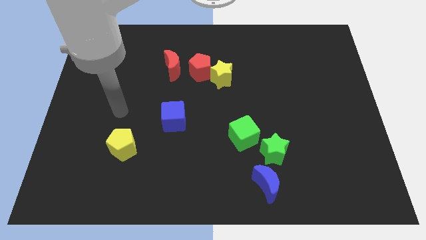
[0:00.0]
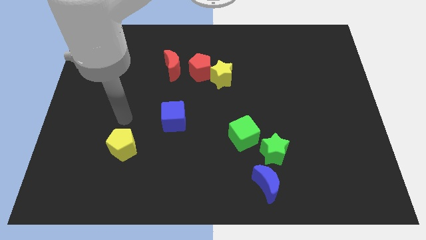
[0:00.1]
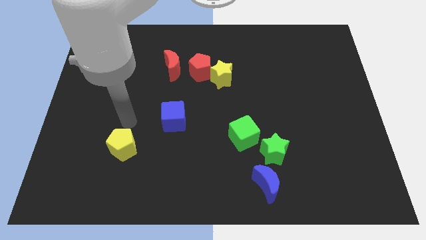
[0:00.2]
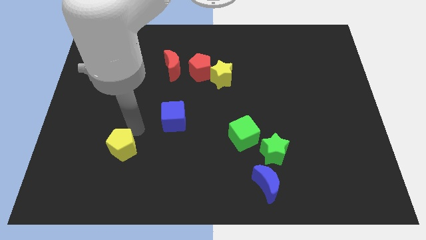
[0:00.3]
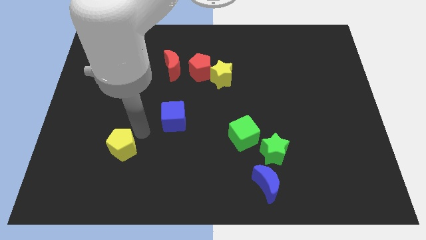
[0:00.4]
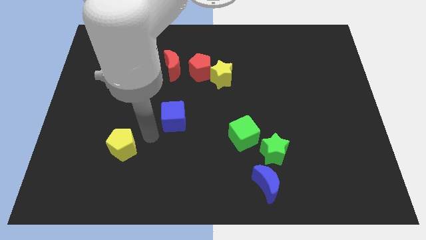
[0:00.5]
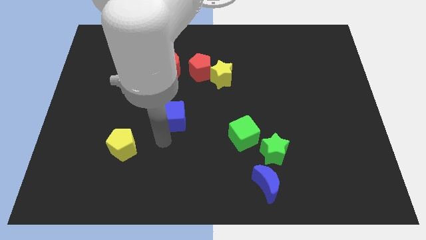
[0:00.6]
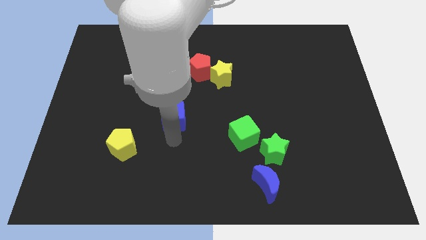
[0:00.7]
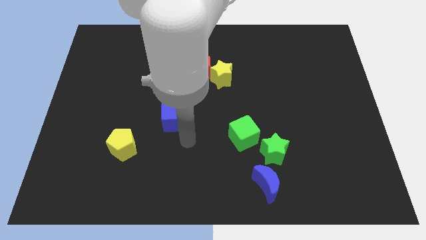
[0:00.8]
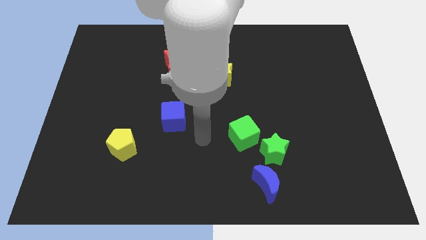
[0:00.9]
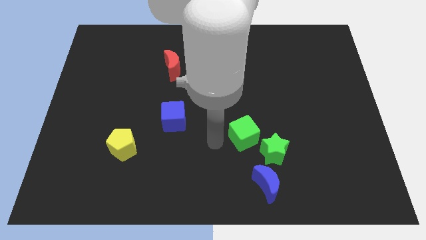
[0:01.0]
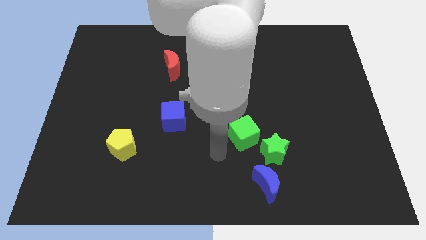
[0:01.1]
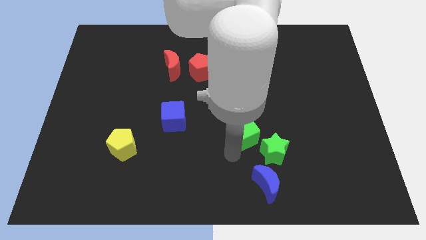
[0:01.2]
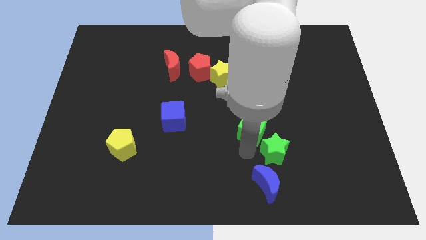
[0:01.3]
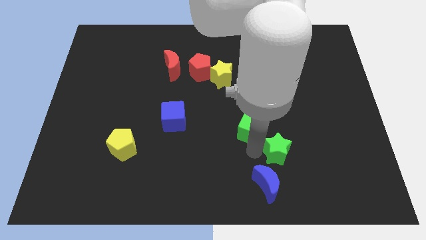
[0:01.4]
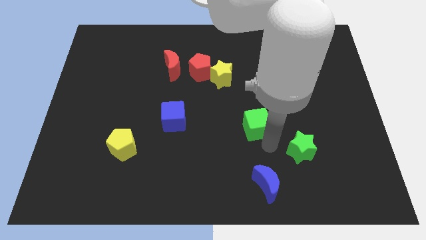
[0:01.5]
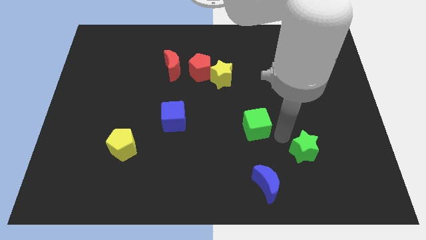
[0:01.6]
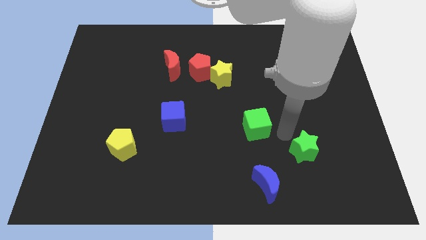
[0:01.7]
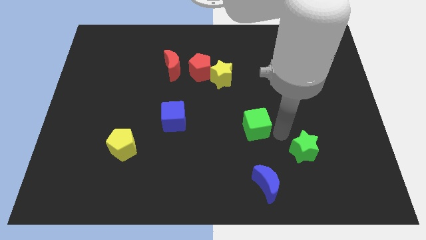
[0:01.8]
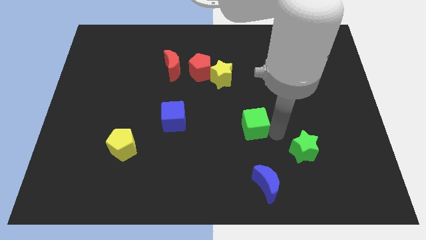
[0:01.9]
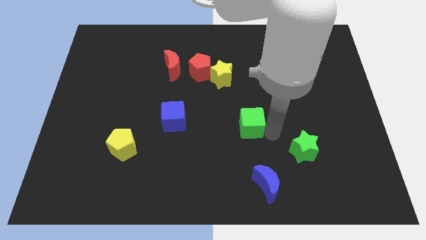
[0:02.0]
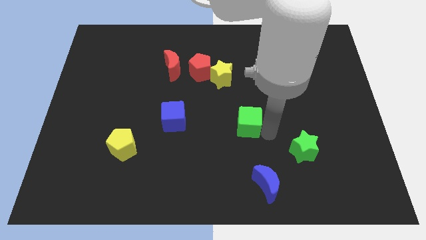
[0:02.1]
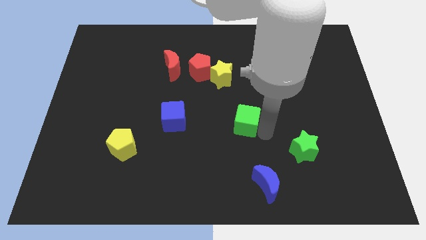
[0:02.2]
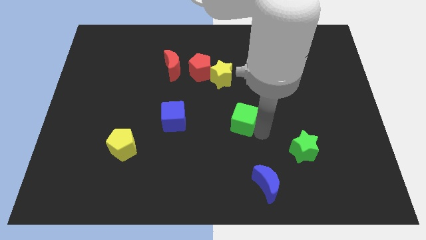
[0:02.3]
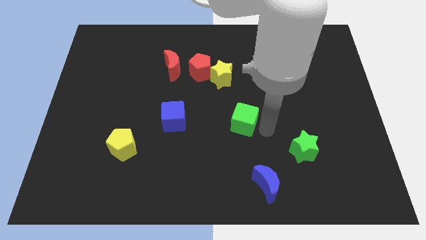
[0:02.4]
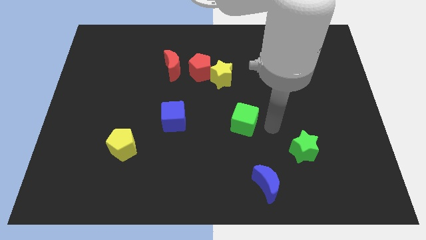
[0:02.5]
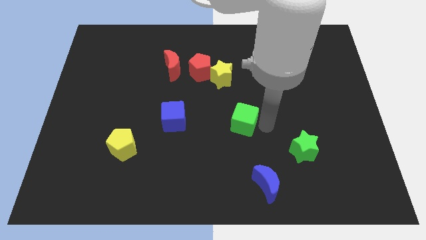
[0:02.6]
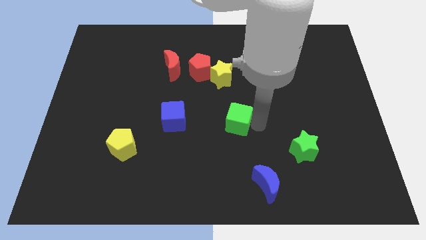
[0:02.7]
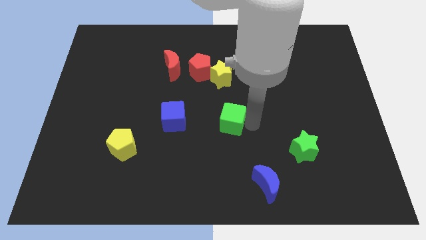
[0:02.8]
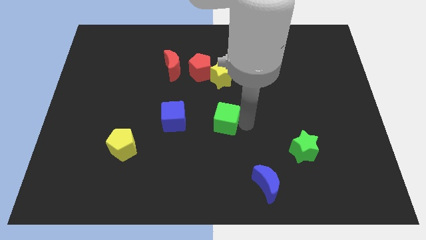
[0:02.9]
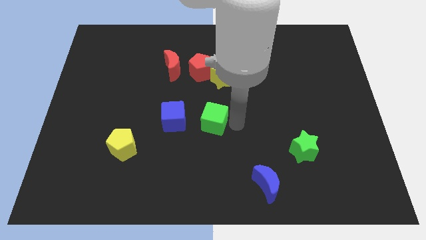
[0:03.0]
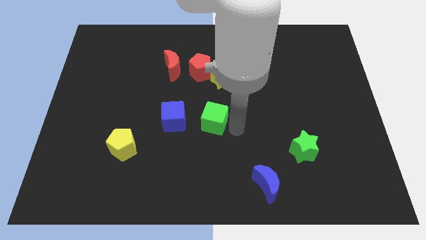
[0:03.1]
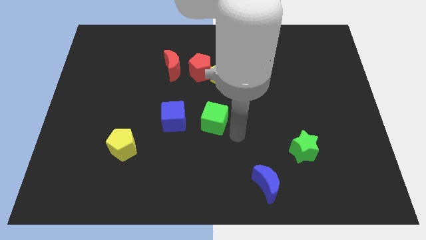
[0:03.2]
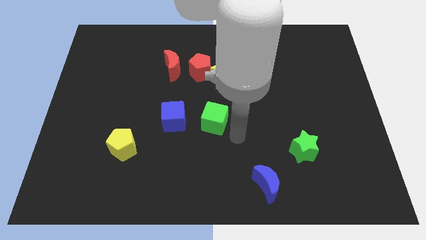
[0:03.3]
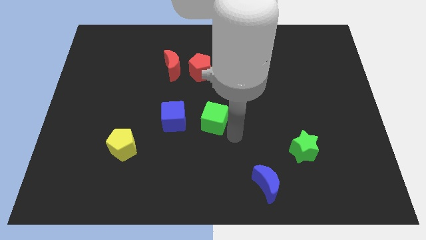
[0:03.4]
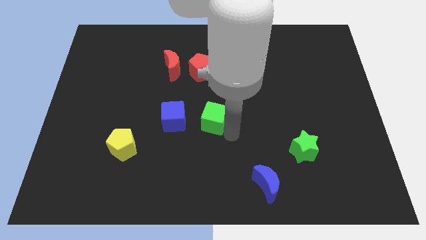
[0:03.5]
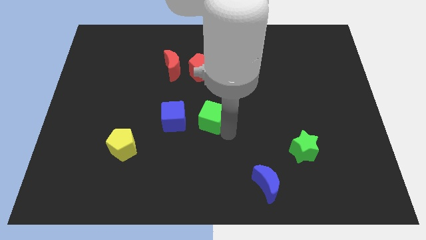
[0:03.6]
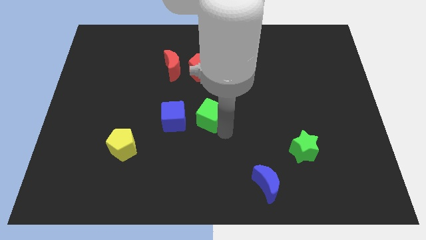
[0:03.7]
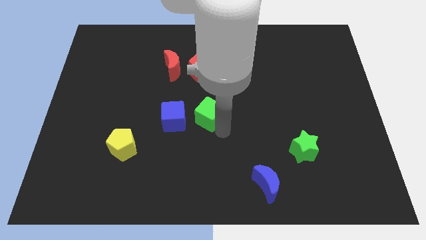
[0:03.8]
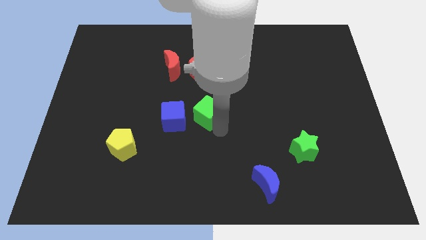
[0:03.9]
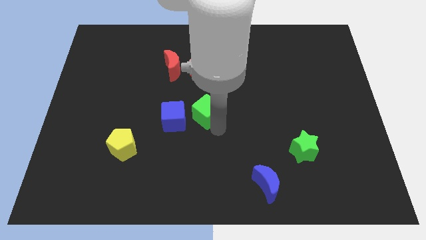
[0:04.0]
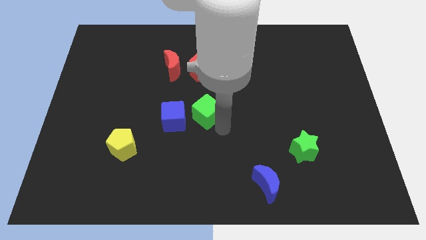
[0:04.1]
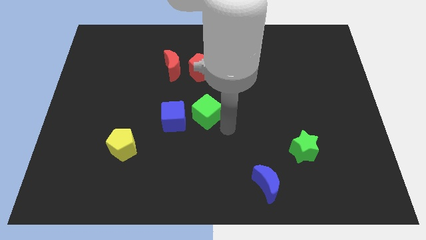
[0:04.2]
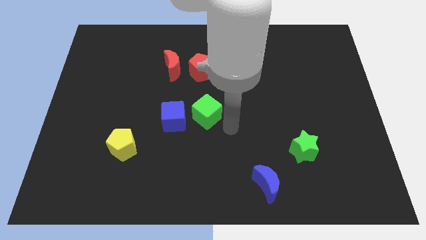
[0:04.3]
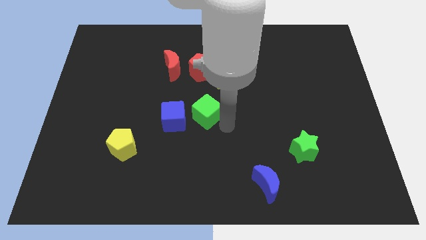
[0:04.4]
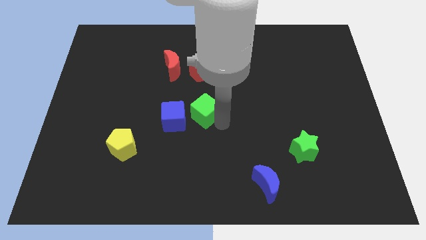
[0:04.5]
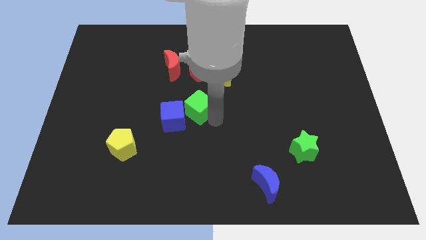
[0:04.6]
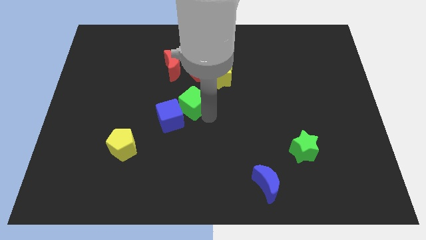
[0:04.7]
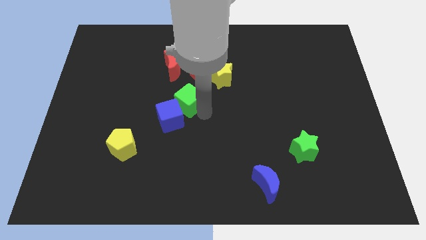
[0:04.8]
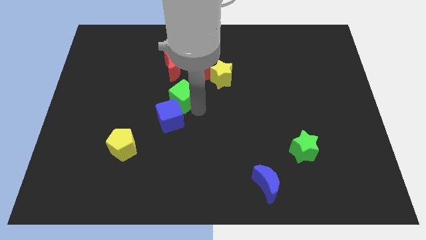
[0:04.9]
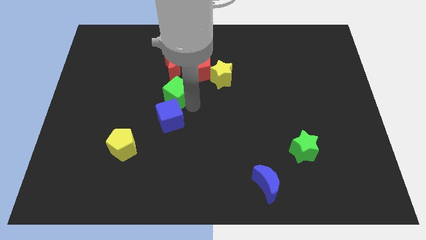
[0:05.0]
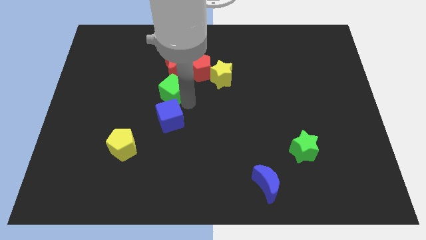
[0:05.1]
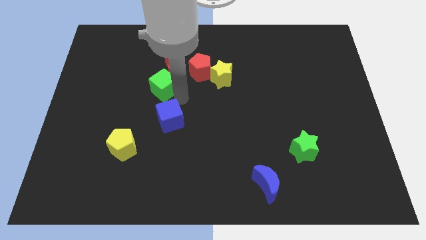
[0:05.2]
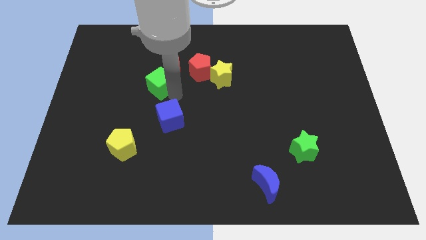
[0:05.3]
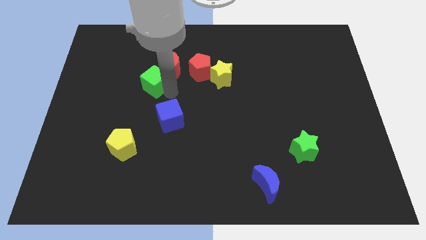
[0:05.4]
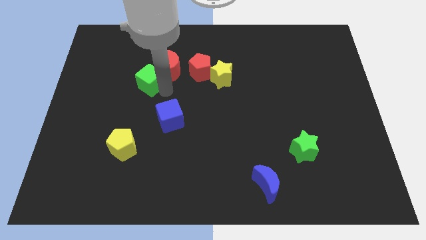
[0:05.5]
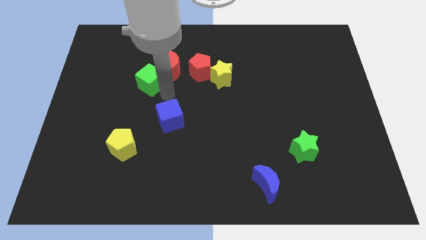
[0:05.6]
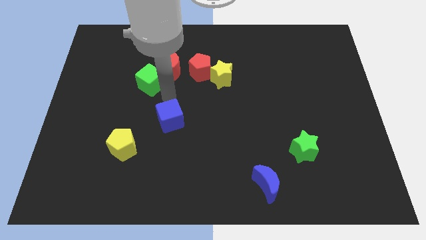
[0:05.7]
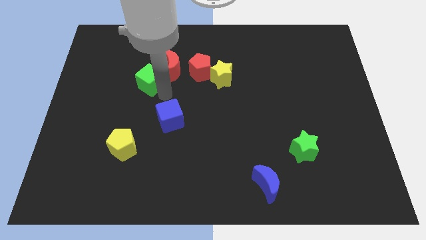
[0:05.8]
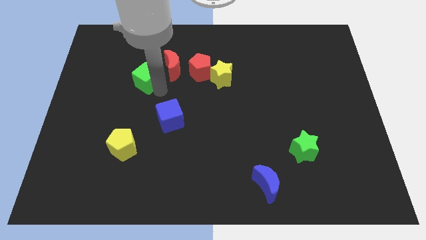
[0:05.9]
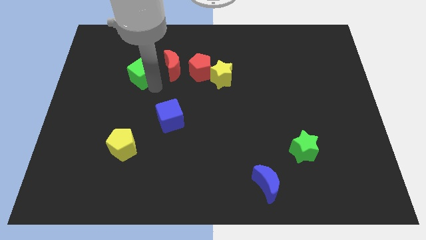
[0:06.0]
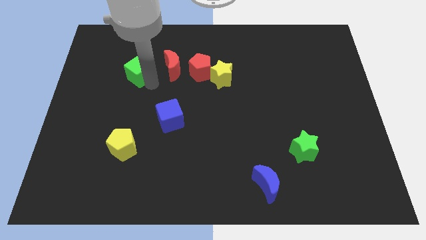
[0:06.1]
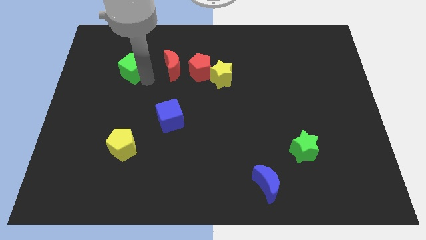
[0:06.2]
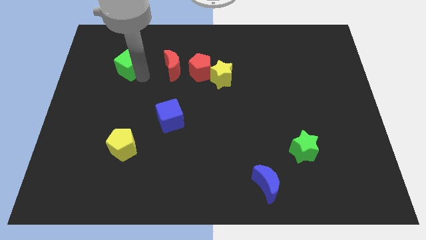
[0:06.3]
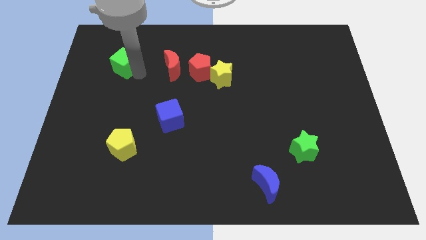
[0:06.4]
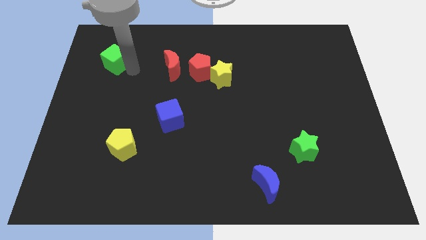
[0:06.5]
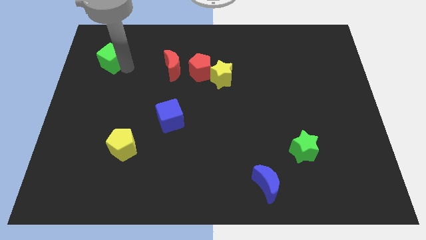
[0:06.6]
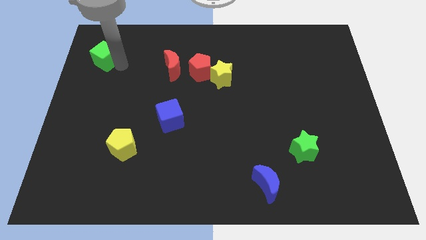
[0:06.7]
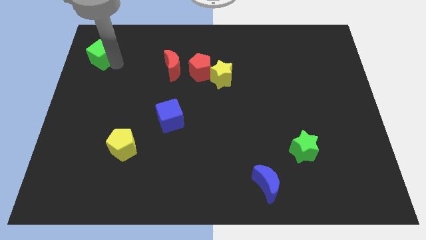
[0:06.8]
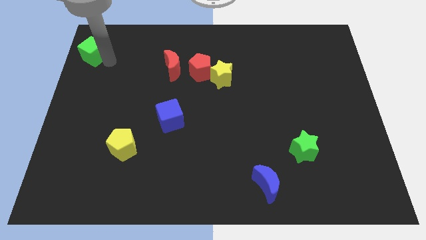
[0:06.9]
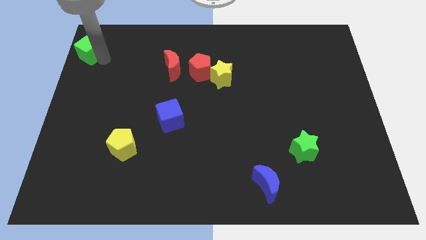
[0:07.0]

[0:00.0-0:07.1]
put the green cube to the top left
